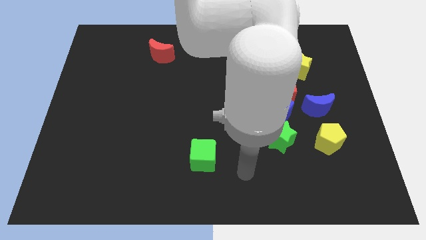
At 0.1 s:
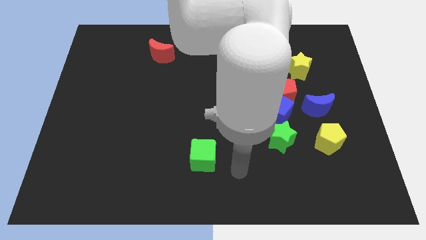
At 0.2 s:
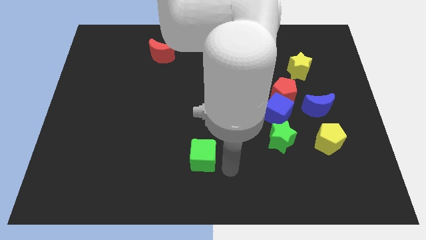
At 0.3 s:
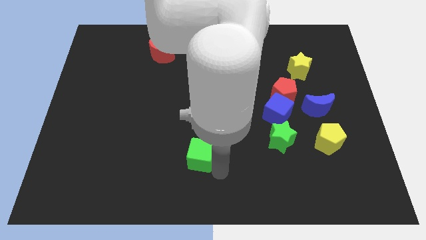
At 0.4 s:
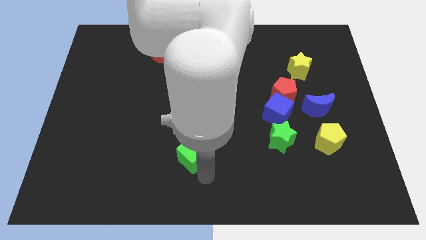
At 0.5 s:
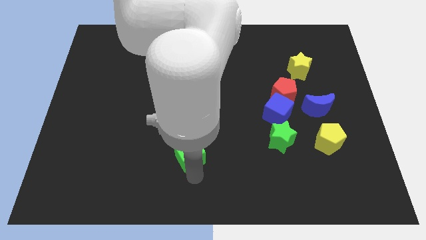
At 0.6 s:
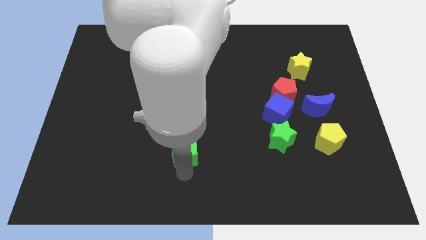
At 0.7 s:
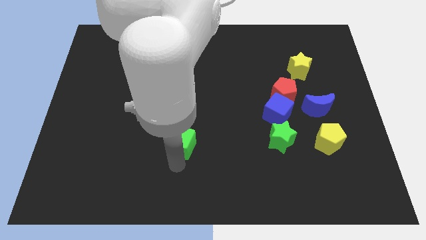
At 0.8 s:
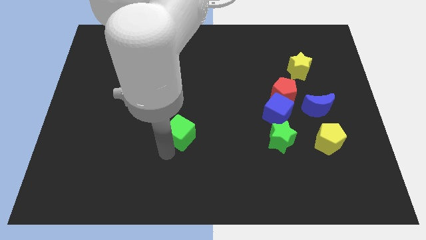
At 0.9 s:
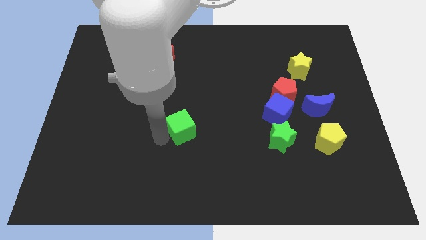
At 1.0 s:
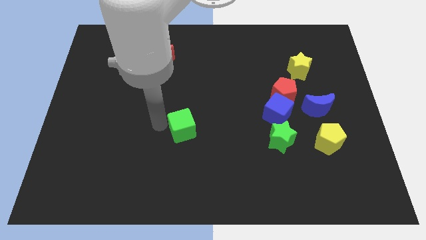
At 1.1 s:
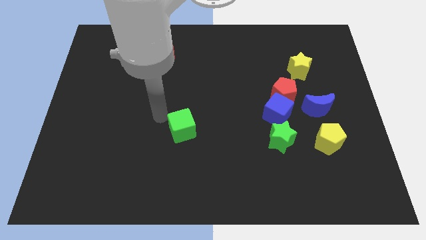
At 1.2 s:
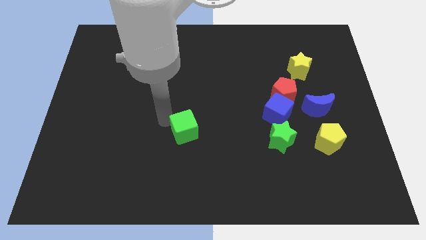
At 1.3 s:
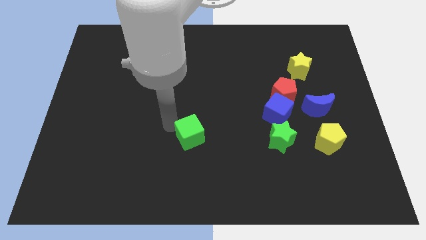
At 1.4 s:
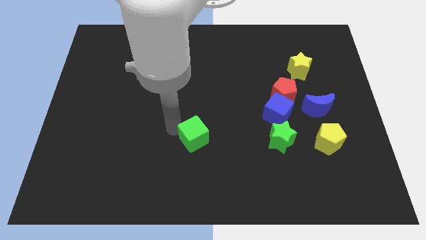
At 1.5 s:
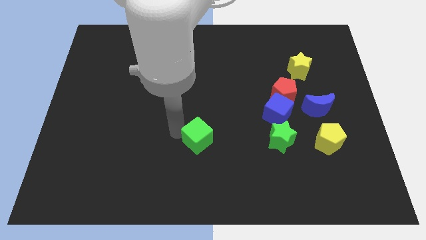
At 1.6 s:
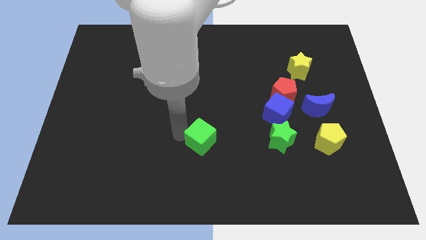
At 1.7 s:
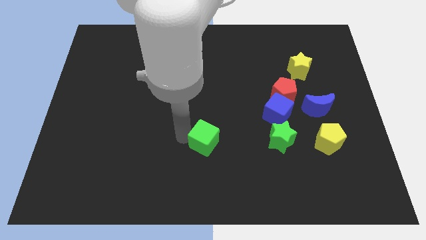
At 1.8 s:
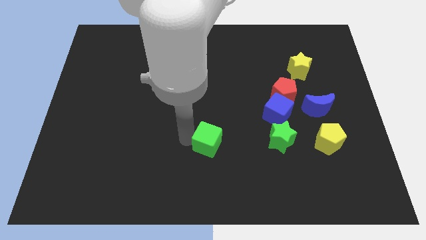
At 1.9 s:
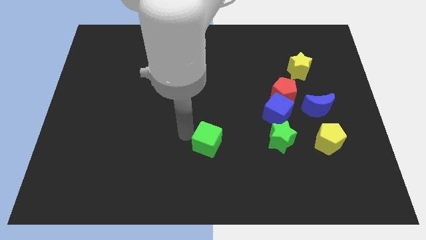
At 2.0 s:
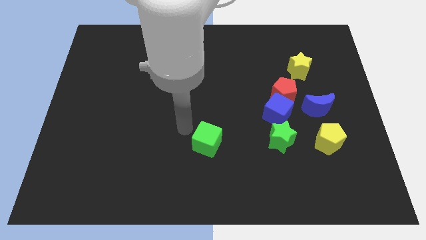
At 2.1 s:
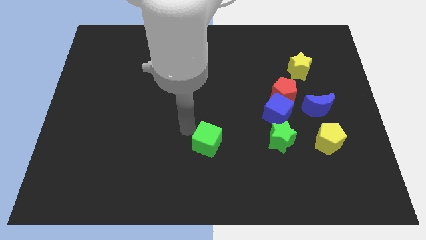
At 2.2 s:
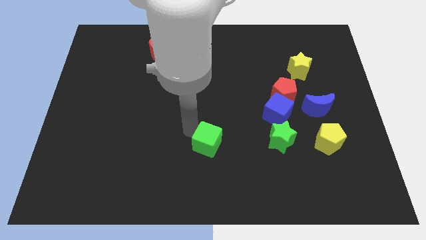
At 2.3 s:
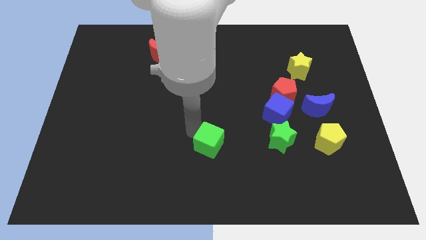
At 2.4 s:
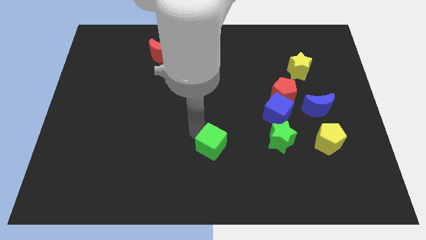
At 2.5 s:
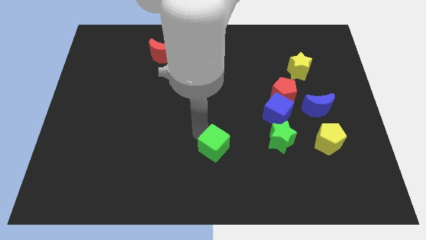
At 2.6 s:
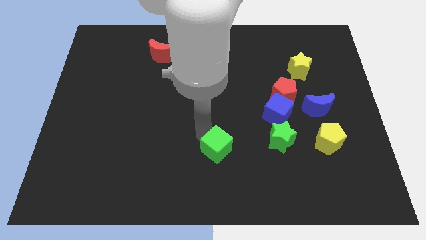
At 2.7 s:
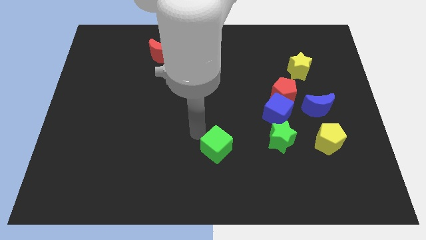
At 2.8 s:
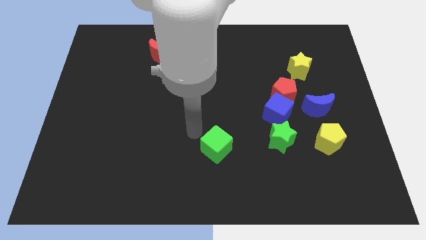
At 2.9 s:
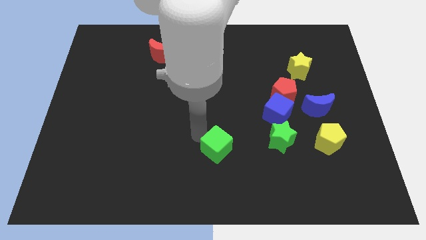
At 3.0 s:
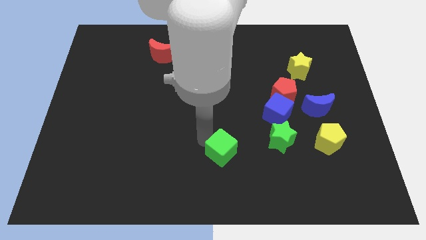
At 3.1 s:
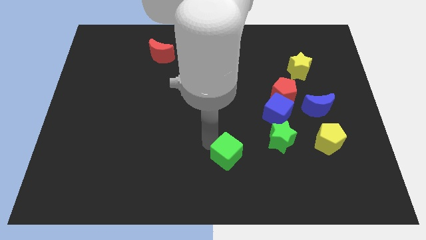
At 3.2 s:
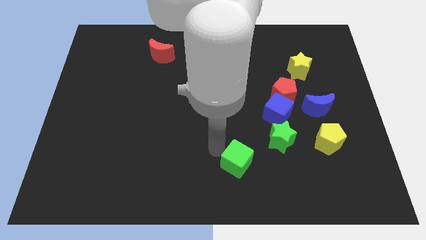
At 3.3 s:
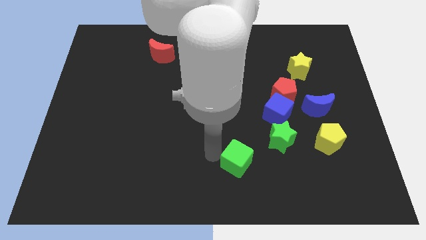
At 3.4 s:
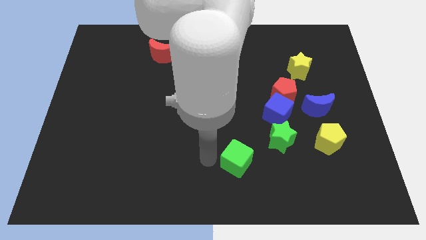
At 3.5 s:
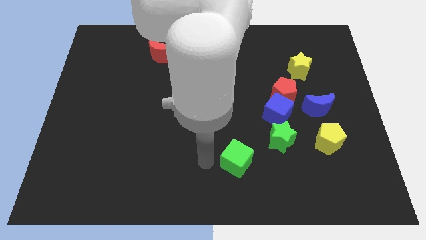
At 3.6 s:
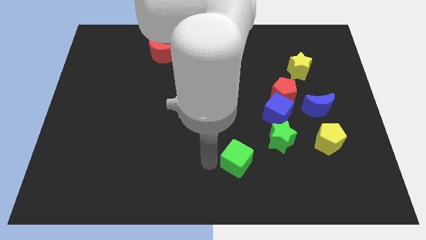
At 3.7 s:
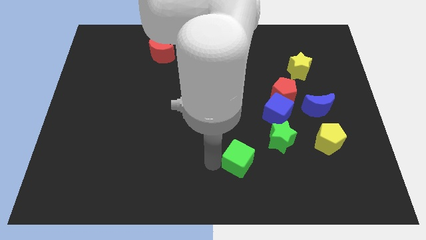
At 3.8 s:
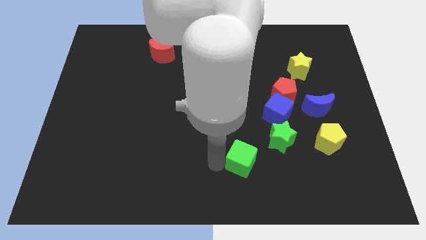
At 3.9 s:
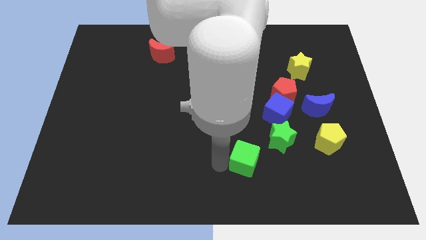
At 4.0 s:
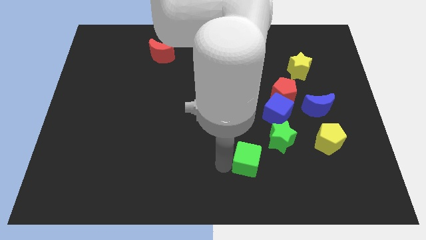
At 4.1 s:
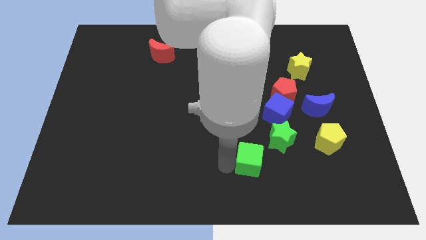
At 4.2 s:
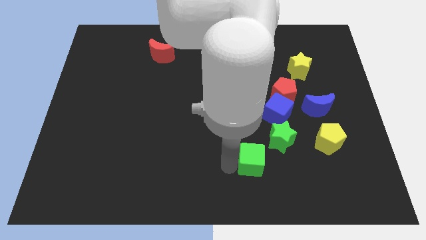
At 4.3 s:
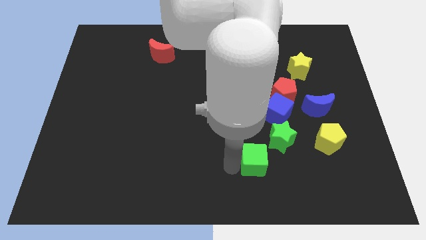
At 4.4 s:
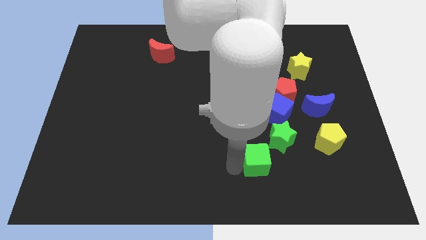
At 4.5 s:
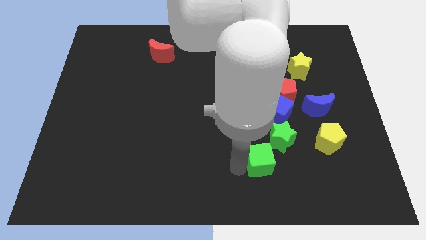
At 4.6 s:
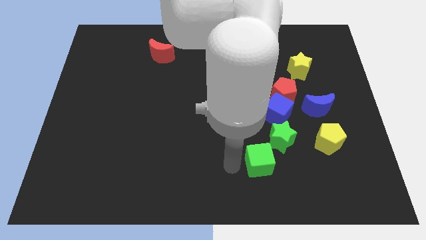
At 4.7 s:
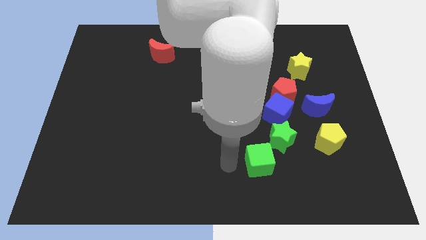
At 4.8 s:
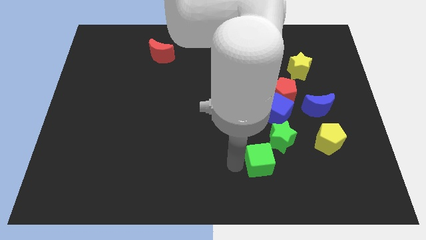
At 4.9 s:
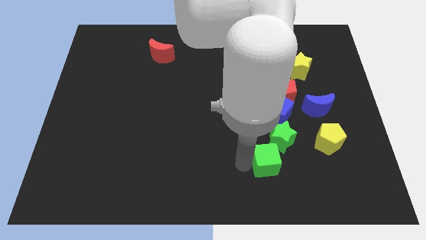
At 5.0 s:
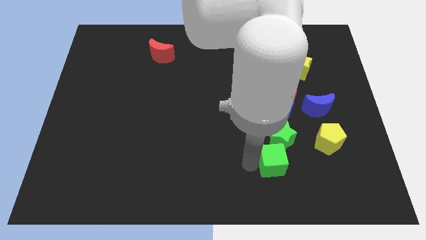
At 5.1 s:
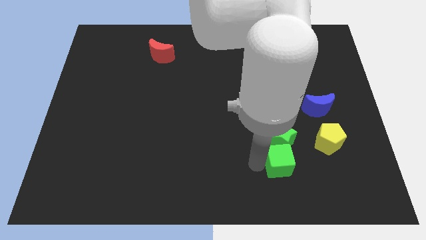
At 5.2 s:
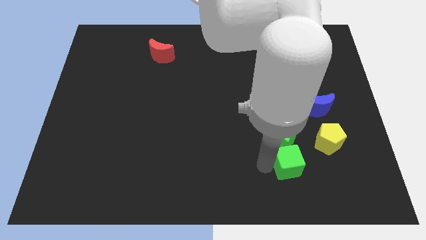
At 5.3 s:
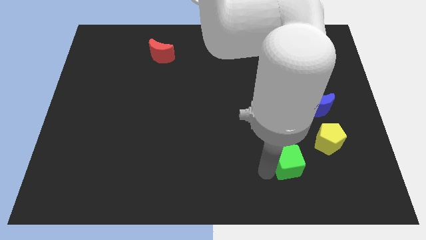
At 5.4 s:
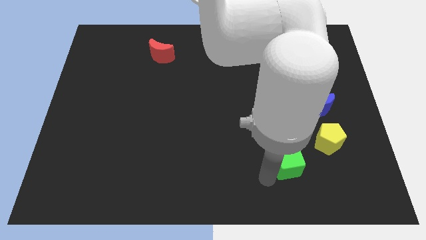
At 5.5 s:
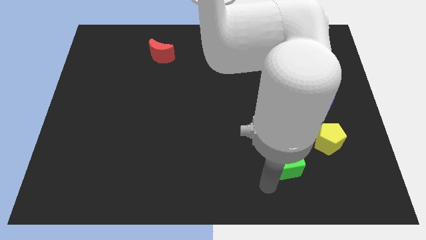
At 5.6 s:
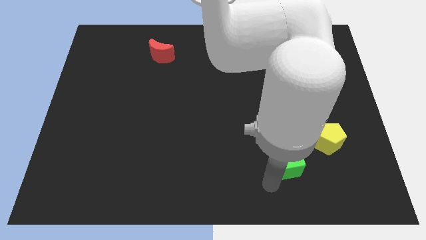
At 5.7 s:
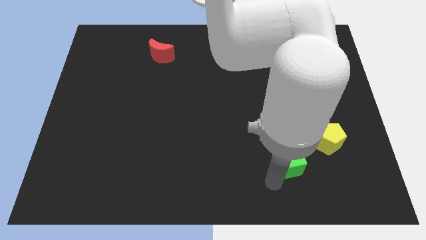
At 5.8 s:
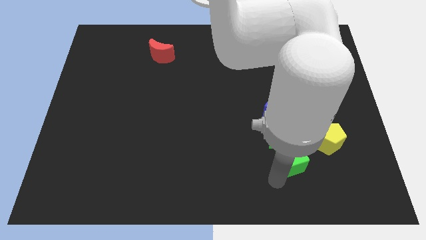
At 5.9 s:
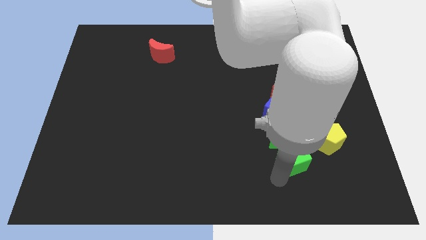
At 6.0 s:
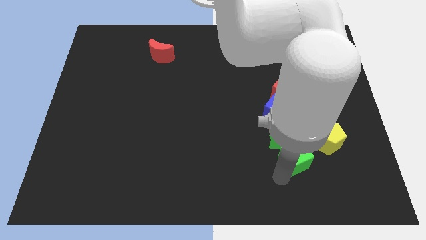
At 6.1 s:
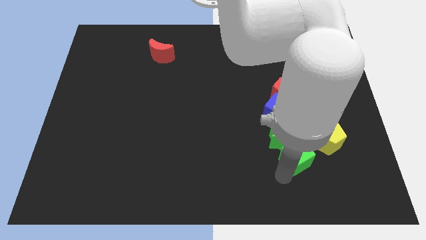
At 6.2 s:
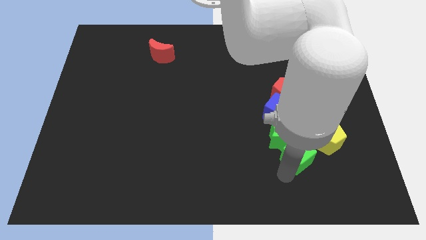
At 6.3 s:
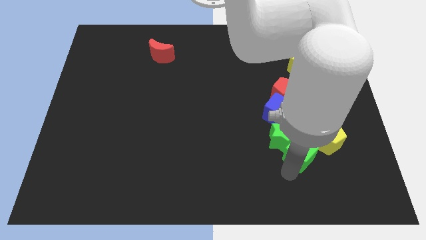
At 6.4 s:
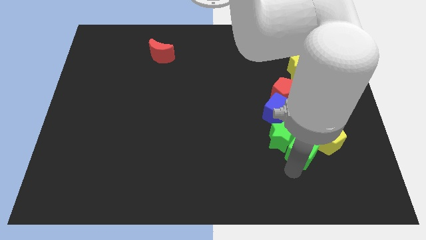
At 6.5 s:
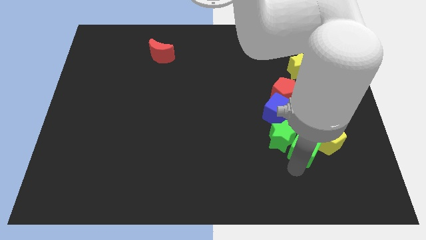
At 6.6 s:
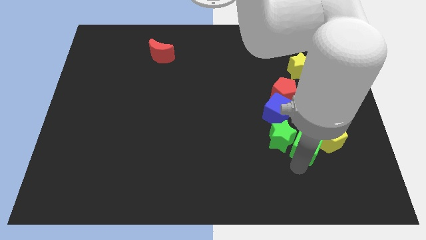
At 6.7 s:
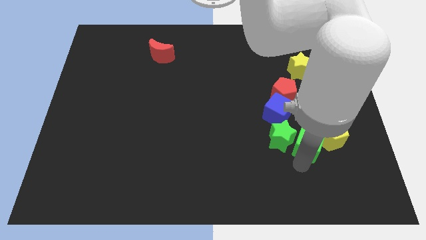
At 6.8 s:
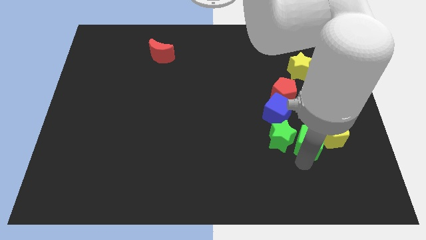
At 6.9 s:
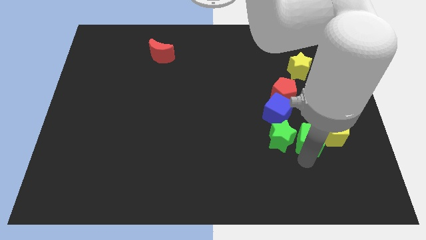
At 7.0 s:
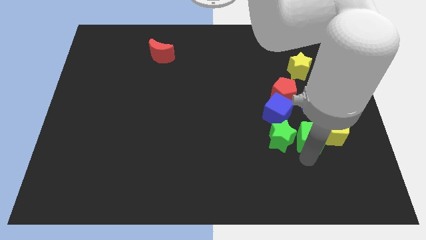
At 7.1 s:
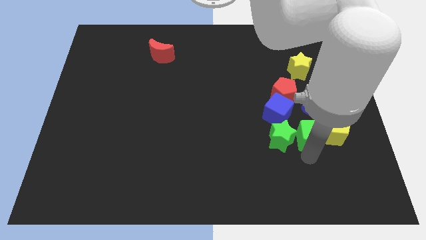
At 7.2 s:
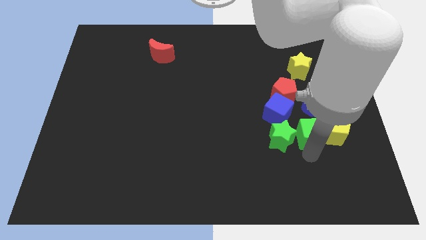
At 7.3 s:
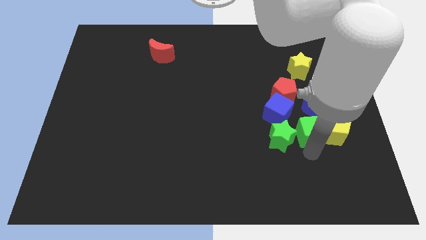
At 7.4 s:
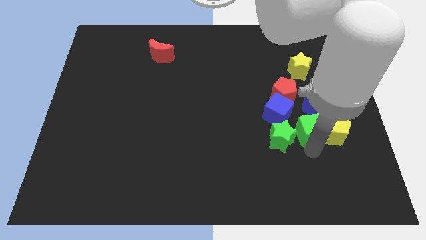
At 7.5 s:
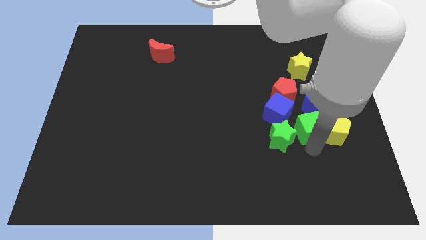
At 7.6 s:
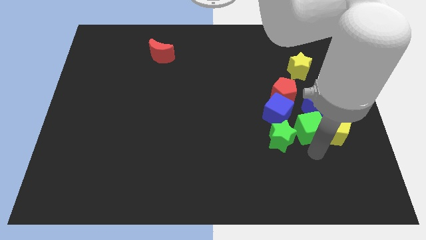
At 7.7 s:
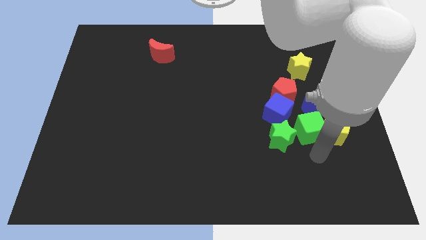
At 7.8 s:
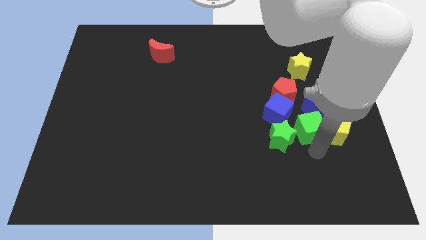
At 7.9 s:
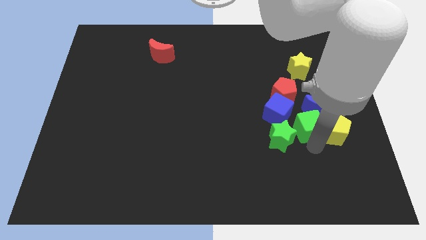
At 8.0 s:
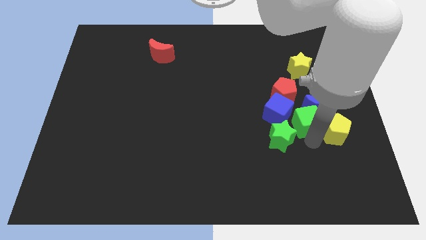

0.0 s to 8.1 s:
slide the green cube next to the blue moon
